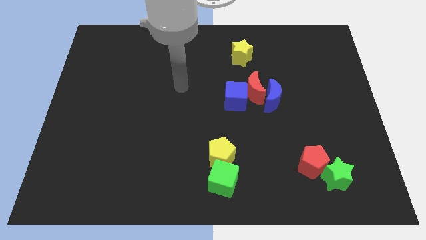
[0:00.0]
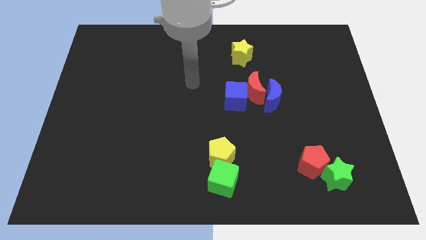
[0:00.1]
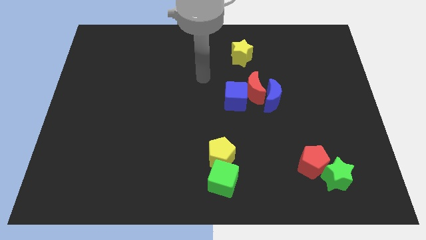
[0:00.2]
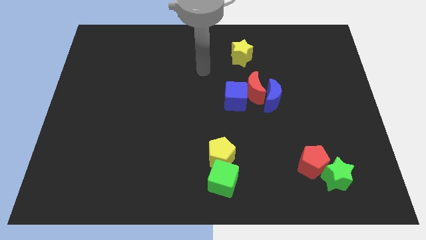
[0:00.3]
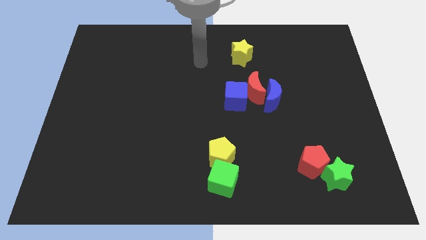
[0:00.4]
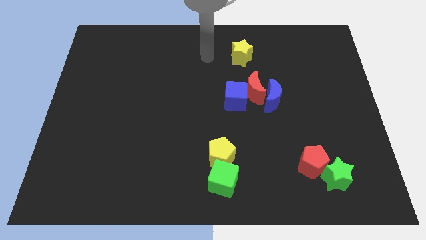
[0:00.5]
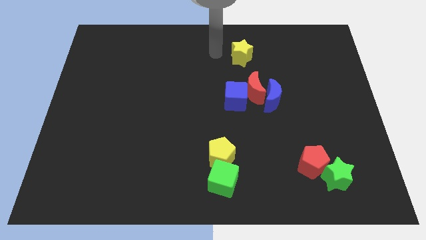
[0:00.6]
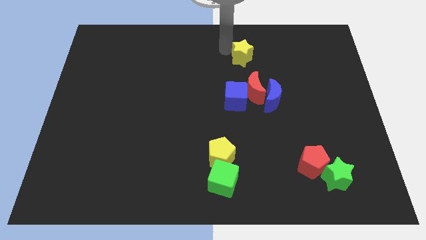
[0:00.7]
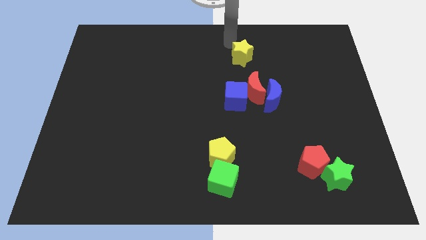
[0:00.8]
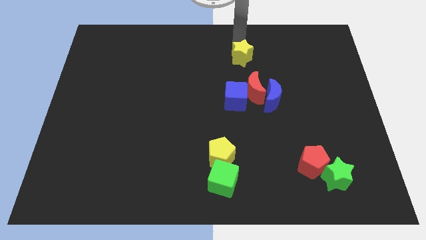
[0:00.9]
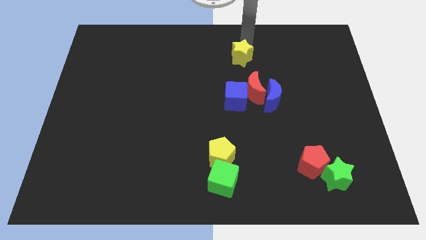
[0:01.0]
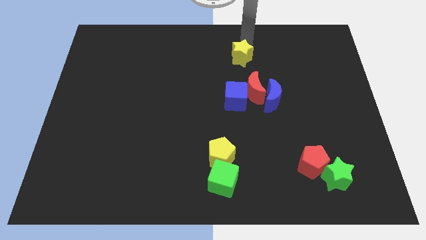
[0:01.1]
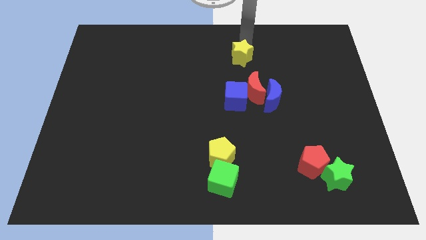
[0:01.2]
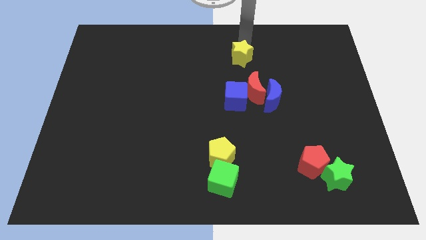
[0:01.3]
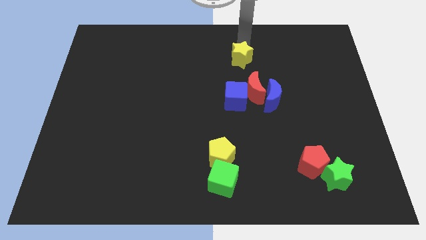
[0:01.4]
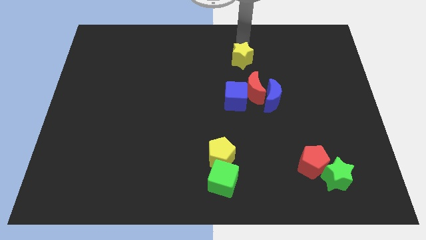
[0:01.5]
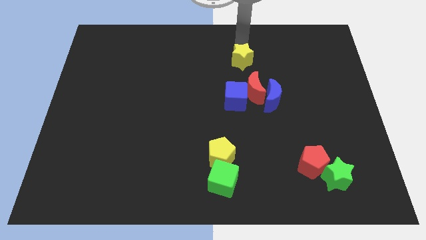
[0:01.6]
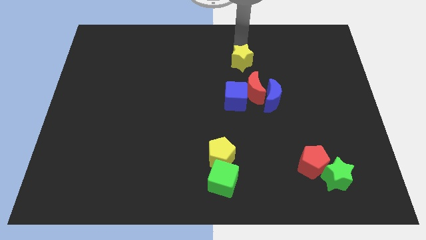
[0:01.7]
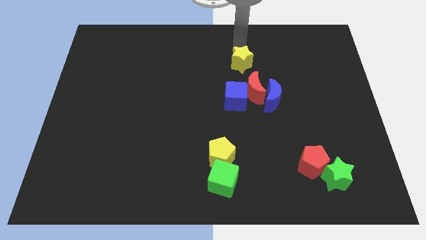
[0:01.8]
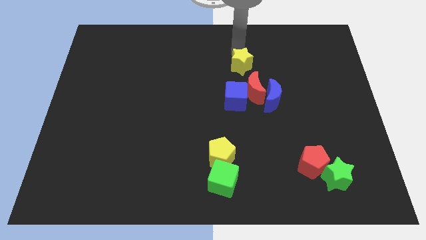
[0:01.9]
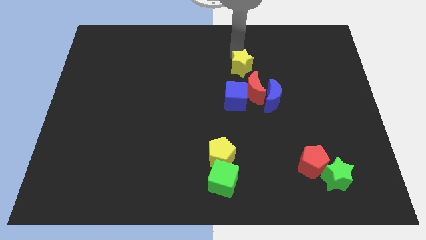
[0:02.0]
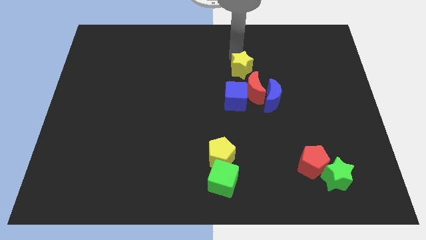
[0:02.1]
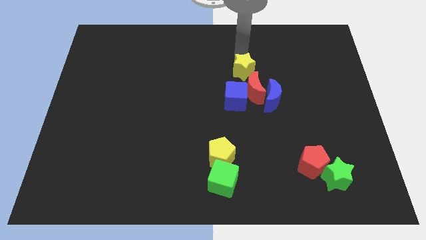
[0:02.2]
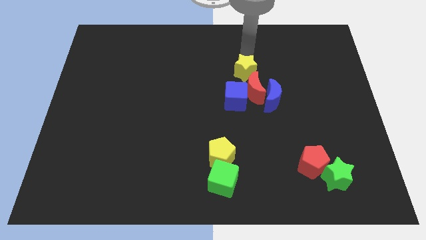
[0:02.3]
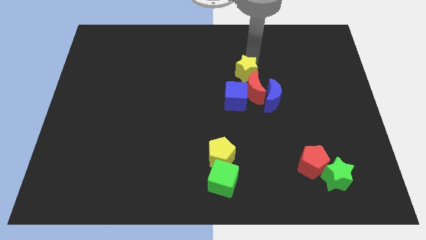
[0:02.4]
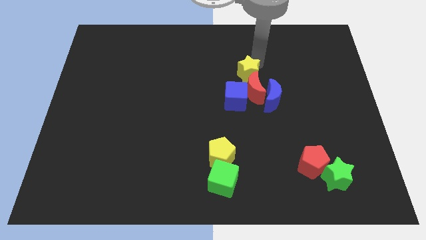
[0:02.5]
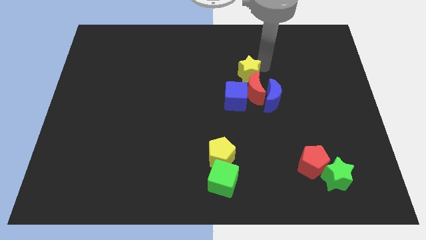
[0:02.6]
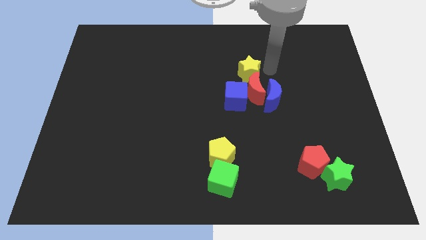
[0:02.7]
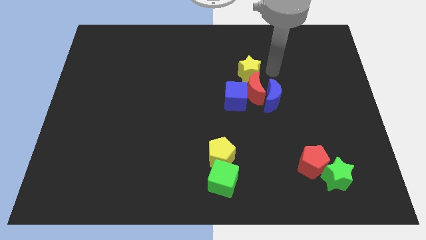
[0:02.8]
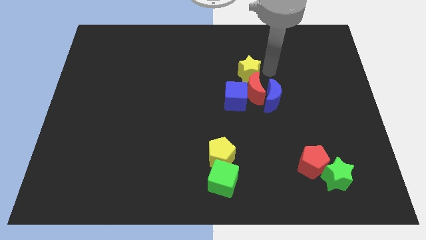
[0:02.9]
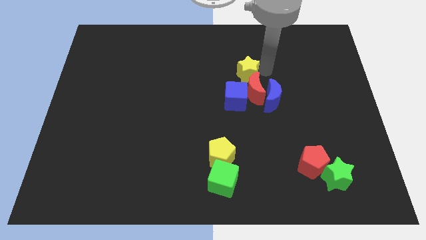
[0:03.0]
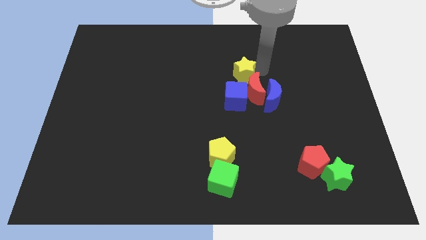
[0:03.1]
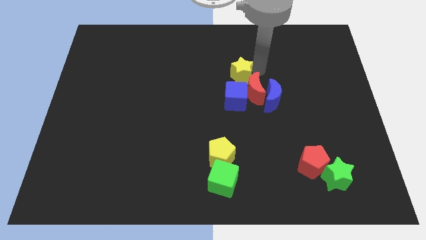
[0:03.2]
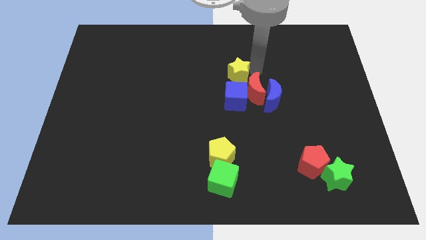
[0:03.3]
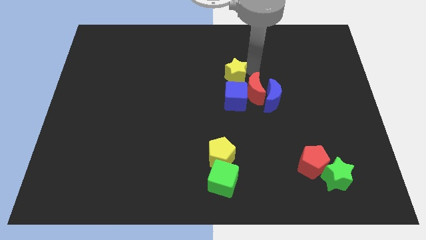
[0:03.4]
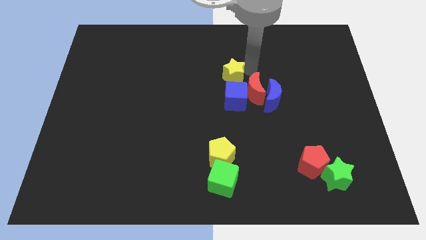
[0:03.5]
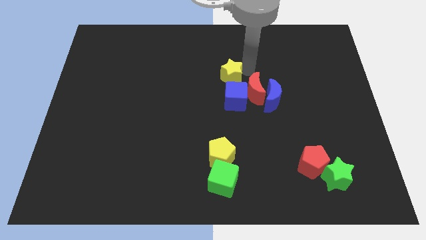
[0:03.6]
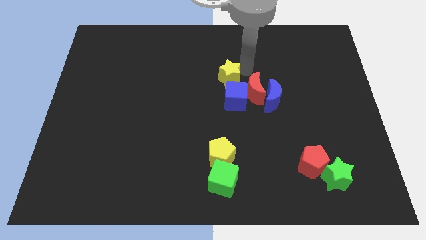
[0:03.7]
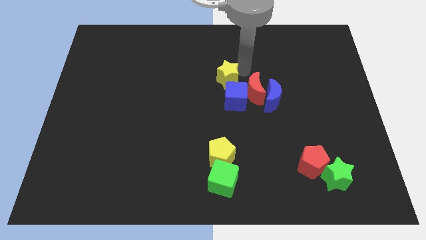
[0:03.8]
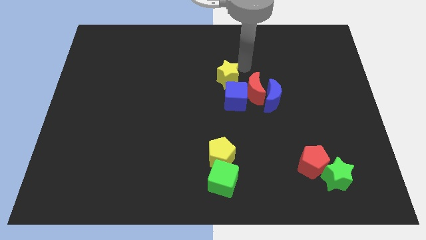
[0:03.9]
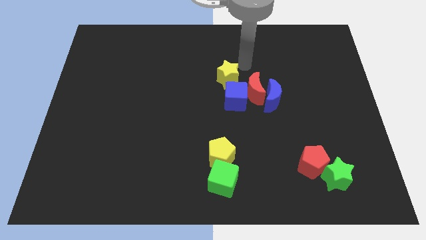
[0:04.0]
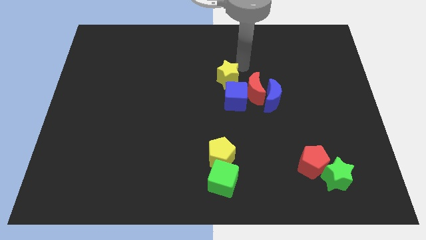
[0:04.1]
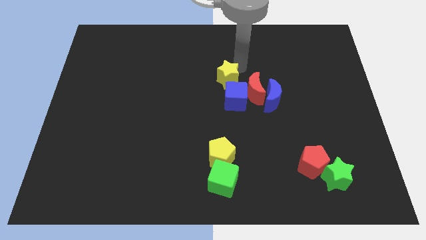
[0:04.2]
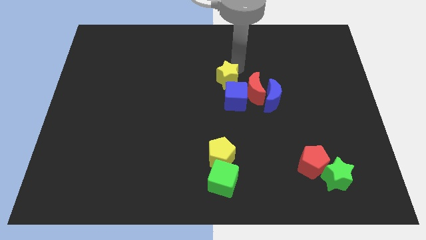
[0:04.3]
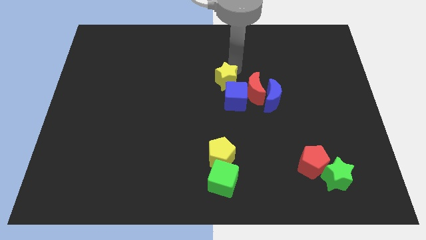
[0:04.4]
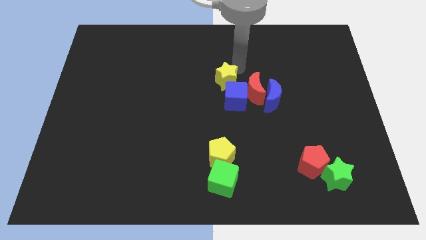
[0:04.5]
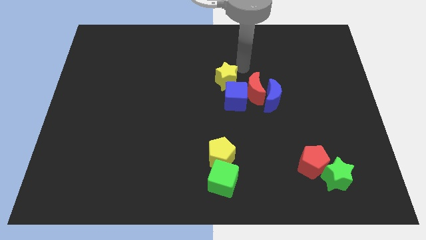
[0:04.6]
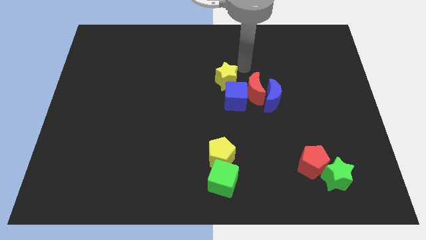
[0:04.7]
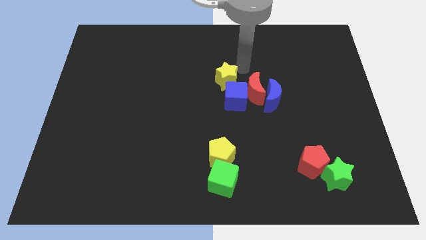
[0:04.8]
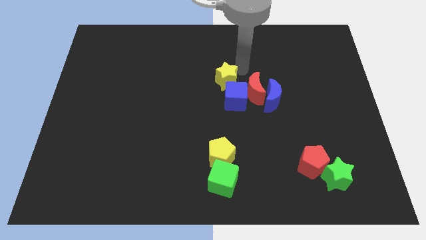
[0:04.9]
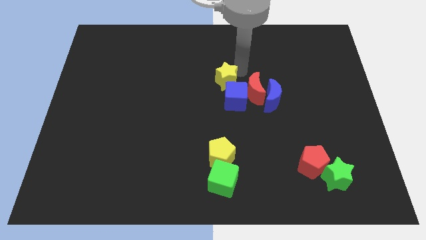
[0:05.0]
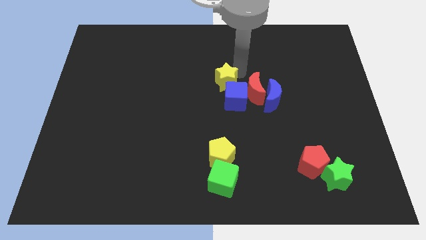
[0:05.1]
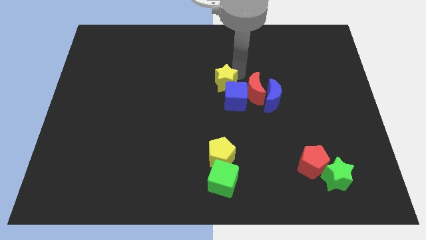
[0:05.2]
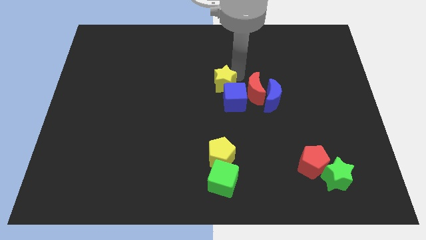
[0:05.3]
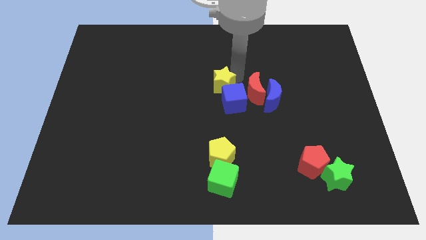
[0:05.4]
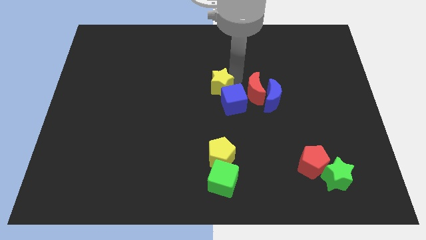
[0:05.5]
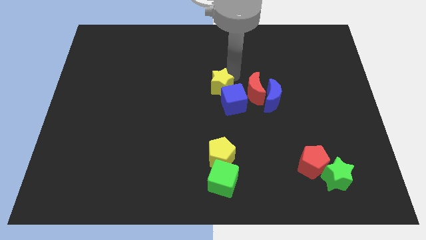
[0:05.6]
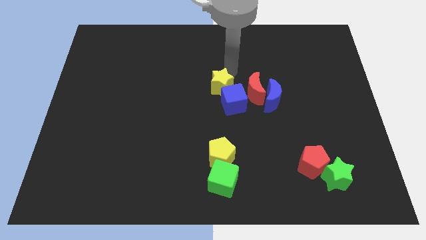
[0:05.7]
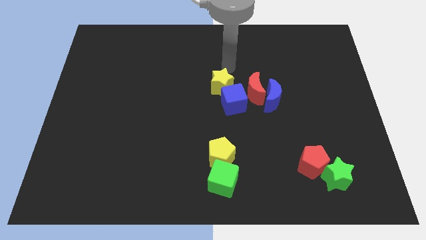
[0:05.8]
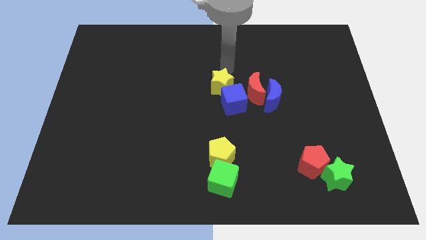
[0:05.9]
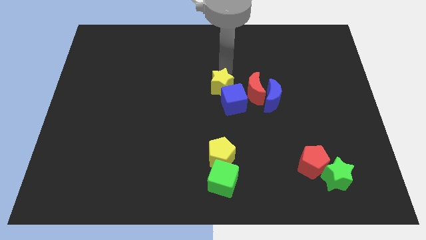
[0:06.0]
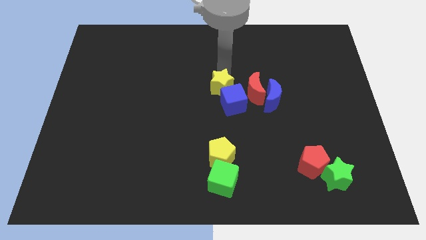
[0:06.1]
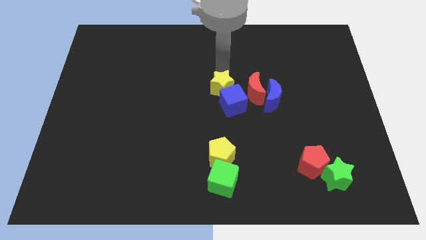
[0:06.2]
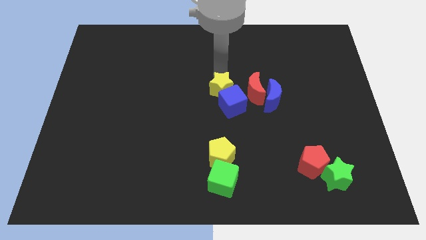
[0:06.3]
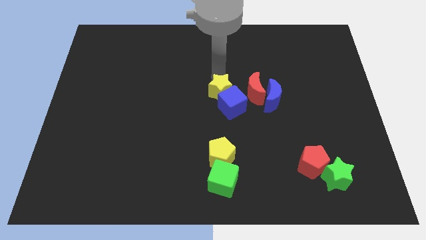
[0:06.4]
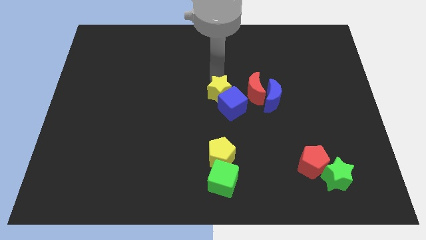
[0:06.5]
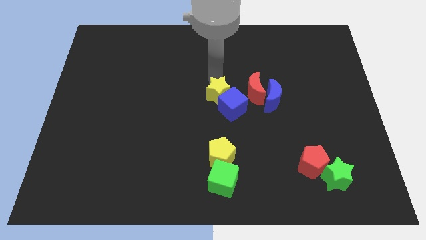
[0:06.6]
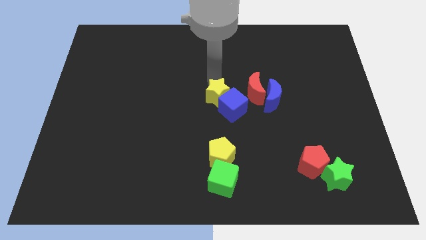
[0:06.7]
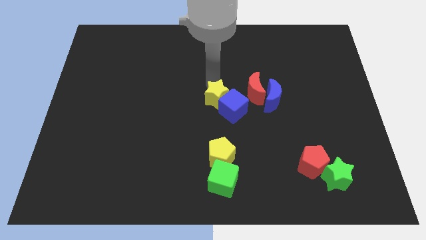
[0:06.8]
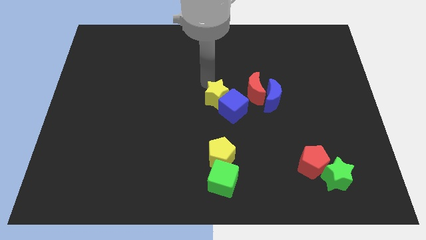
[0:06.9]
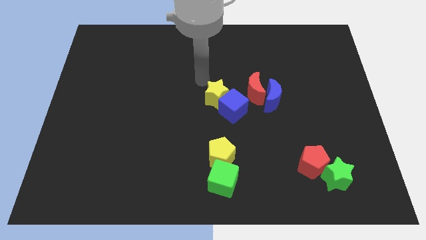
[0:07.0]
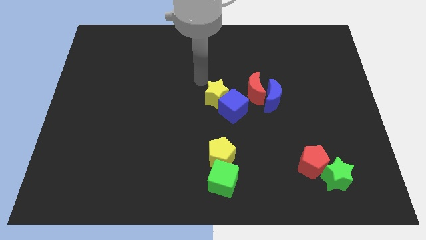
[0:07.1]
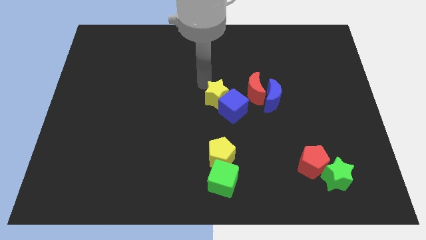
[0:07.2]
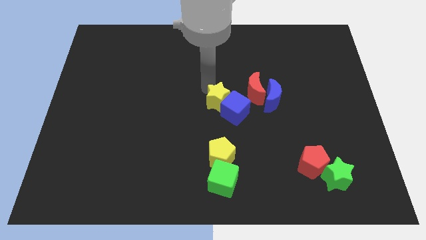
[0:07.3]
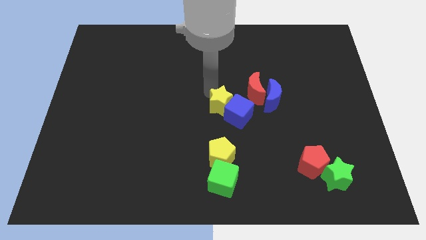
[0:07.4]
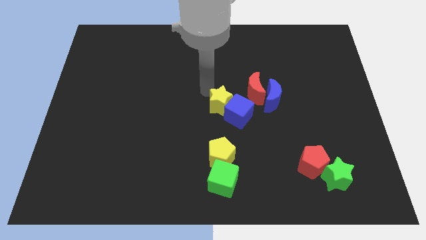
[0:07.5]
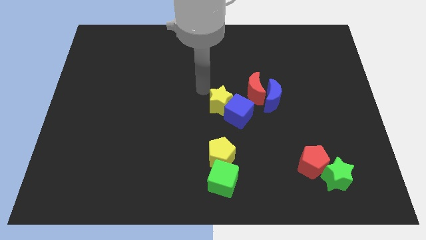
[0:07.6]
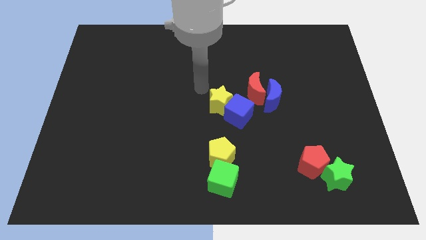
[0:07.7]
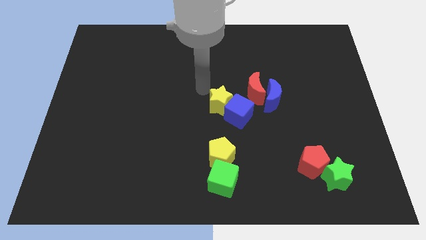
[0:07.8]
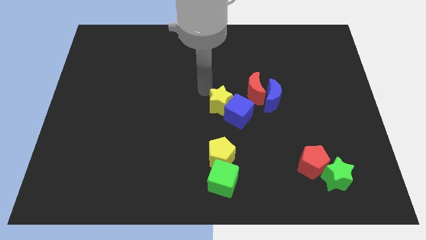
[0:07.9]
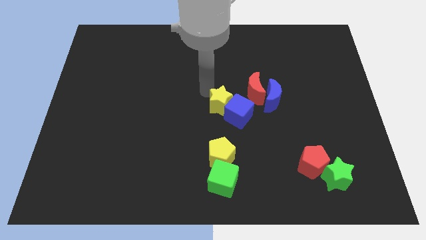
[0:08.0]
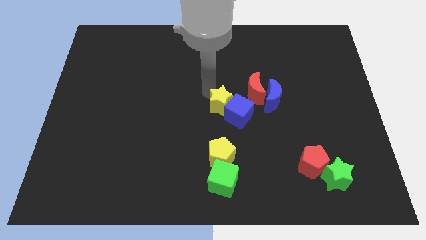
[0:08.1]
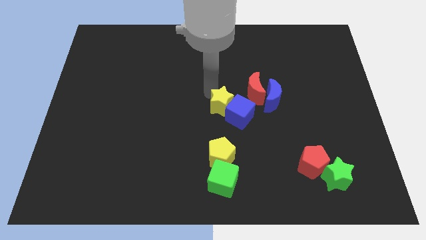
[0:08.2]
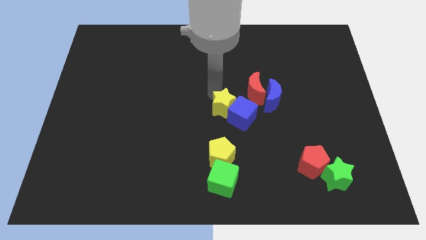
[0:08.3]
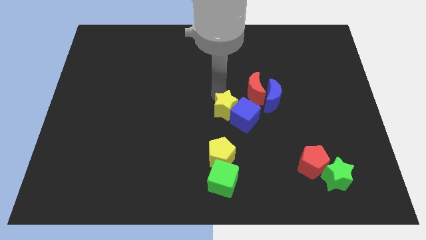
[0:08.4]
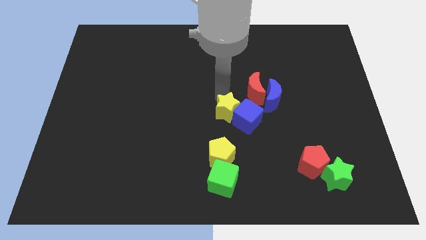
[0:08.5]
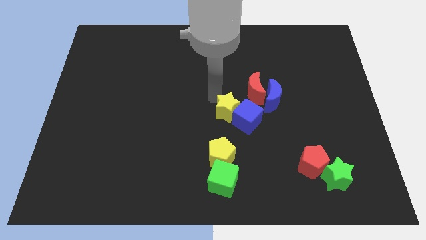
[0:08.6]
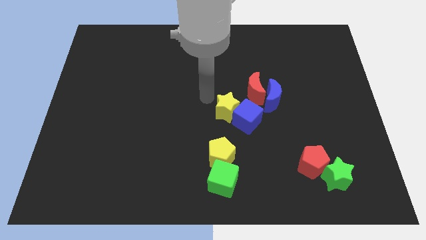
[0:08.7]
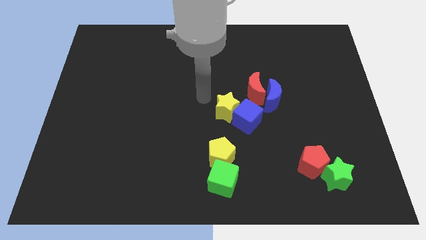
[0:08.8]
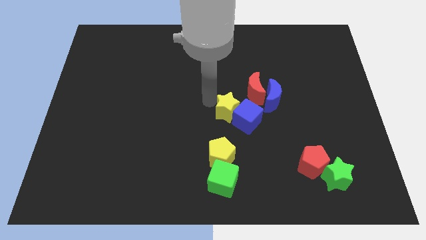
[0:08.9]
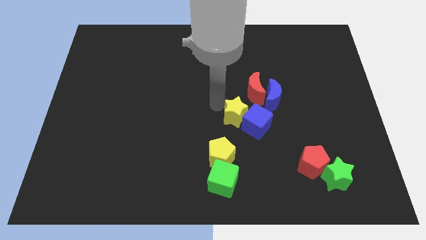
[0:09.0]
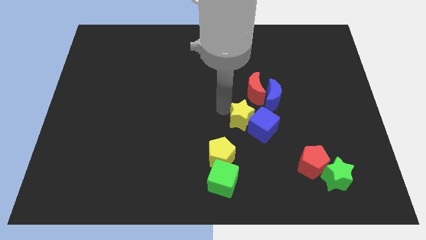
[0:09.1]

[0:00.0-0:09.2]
slide the yellow star to the bottom side of the red moon
